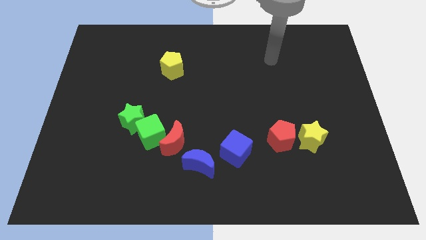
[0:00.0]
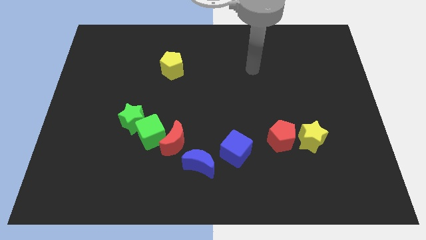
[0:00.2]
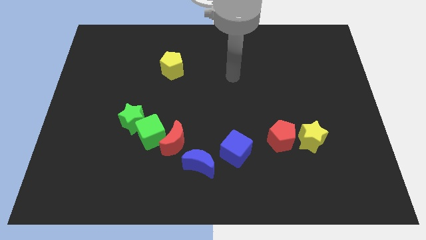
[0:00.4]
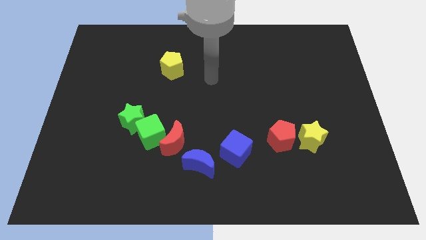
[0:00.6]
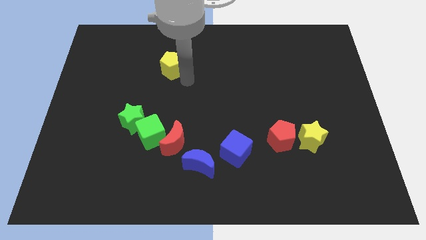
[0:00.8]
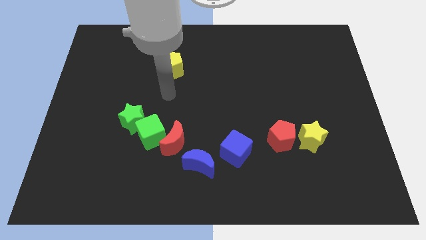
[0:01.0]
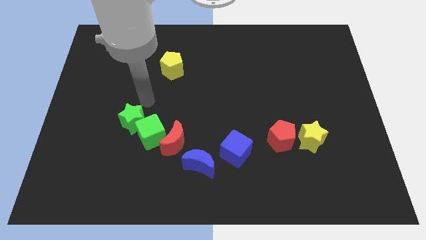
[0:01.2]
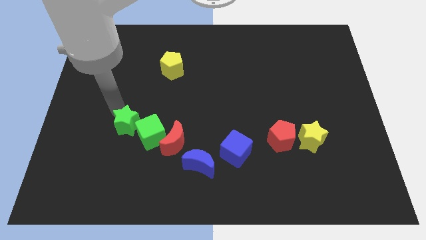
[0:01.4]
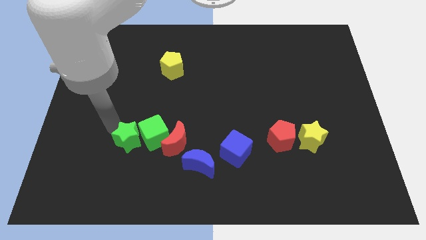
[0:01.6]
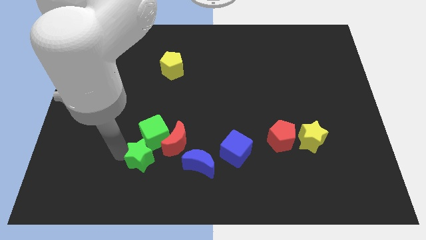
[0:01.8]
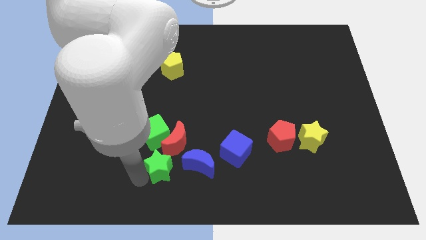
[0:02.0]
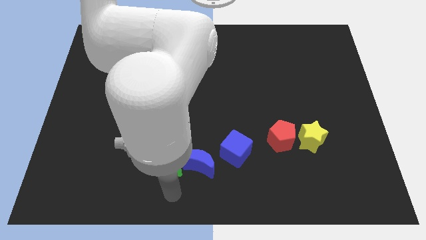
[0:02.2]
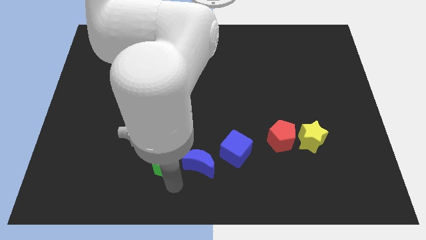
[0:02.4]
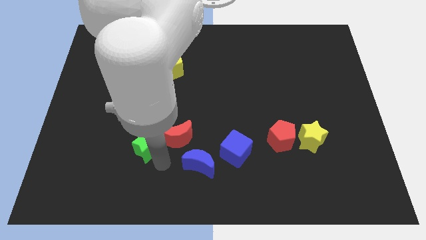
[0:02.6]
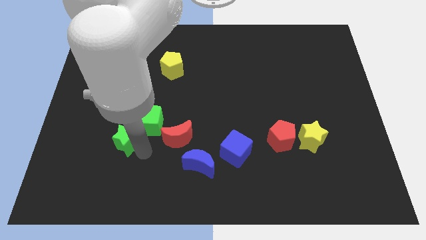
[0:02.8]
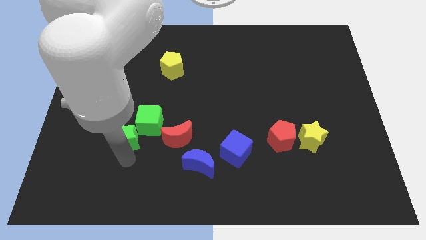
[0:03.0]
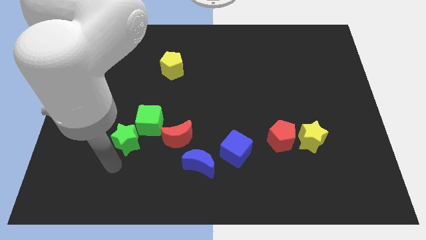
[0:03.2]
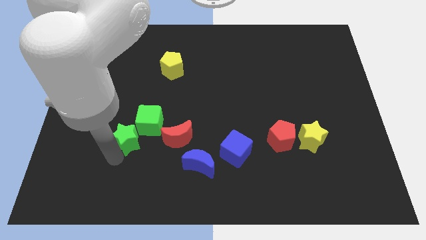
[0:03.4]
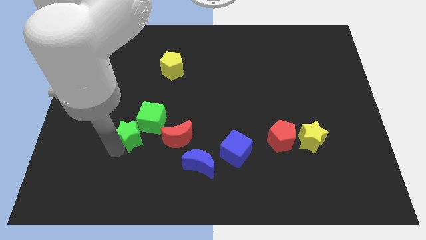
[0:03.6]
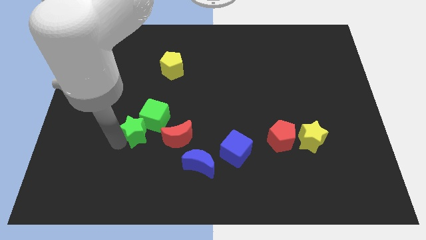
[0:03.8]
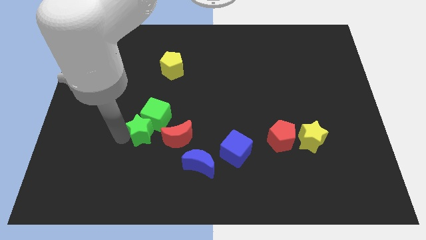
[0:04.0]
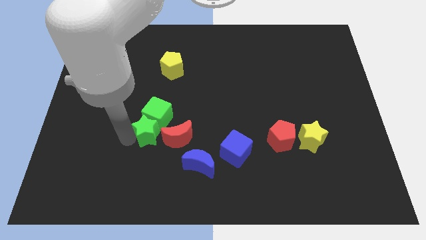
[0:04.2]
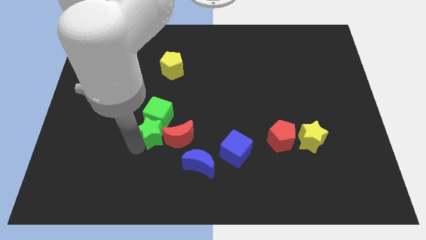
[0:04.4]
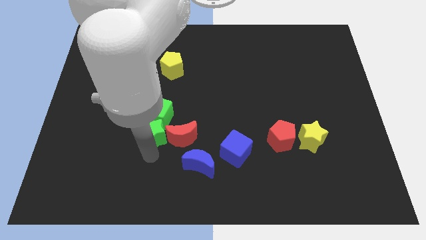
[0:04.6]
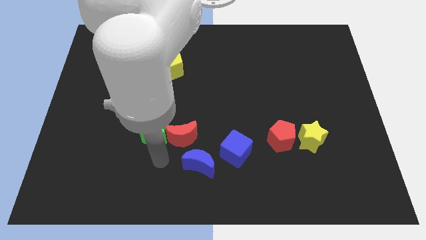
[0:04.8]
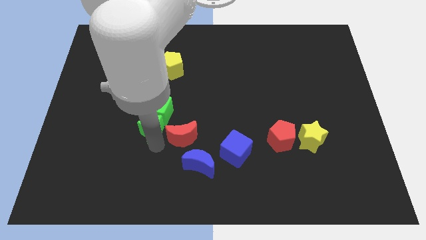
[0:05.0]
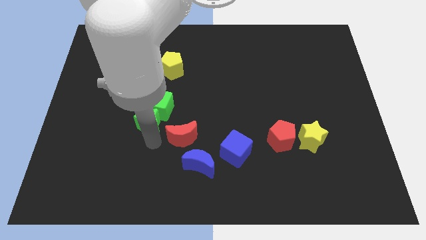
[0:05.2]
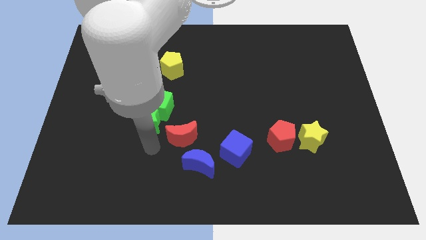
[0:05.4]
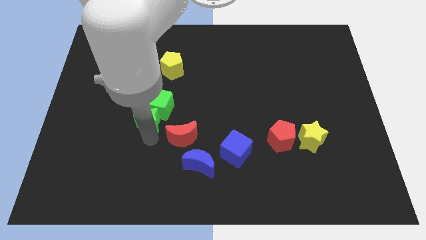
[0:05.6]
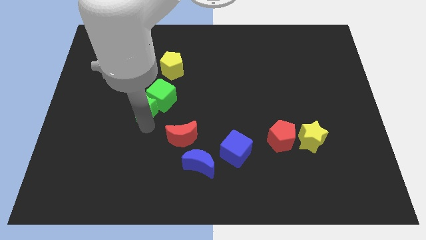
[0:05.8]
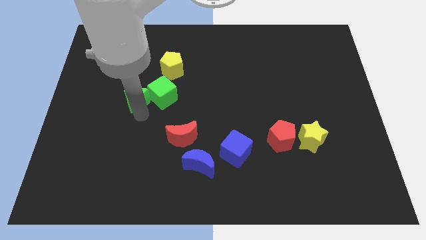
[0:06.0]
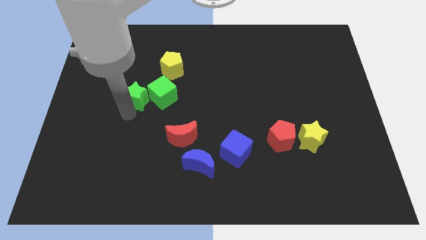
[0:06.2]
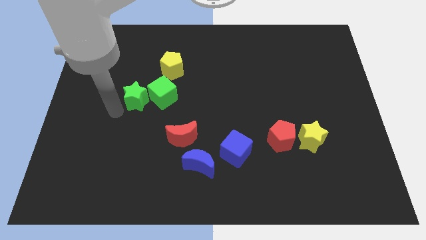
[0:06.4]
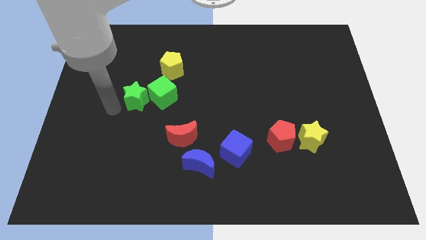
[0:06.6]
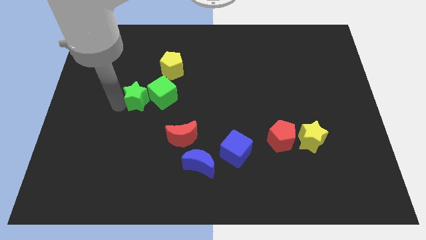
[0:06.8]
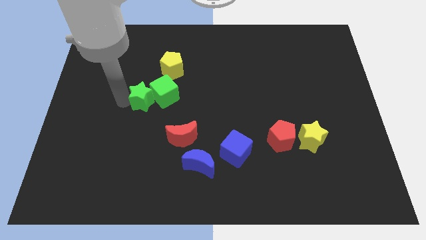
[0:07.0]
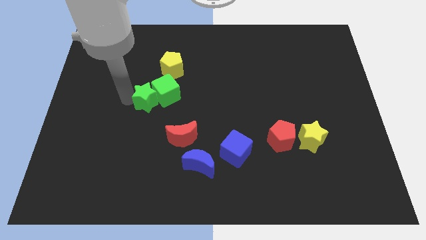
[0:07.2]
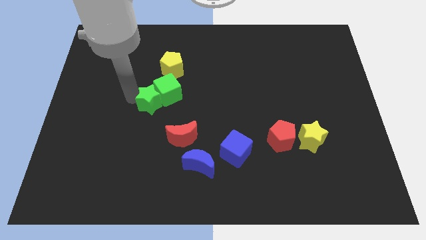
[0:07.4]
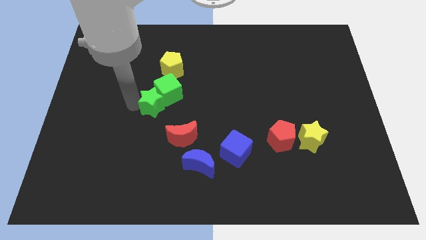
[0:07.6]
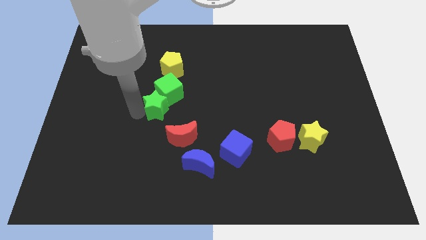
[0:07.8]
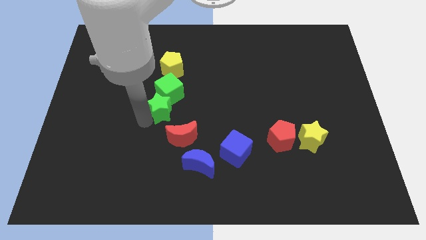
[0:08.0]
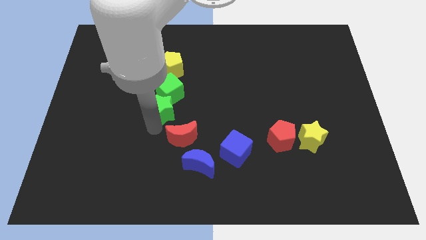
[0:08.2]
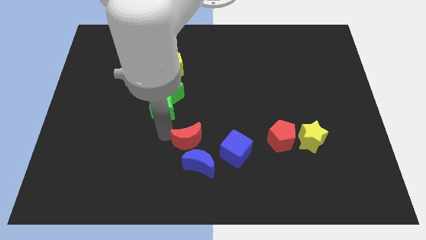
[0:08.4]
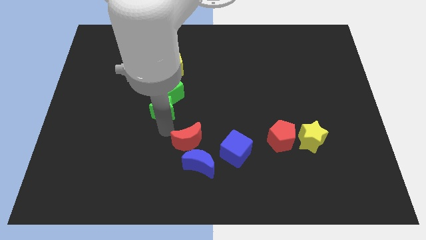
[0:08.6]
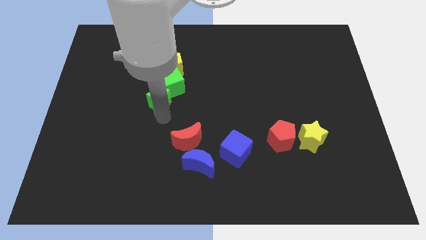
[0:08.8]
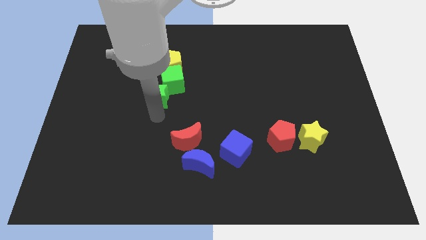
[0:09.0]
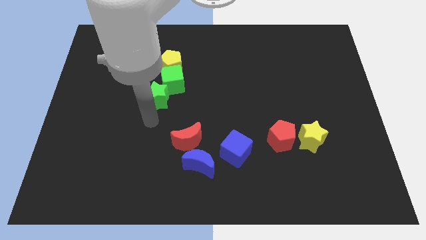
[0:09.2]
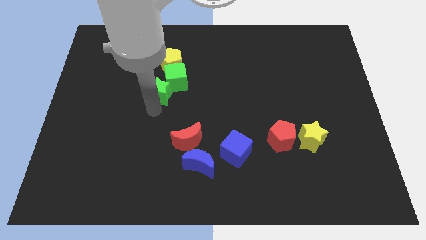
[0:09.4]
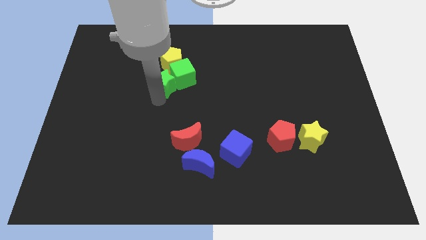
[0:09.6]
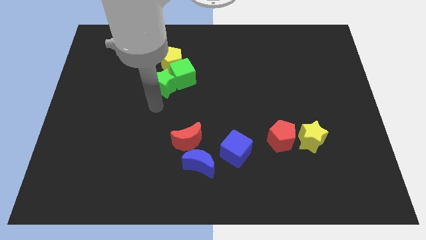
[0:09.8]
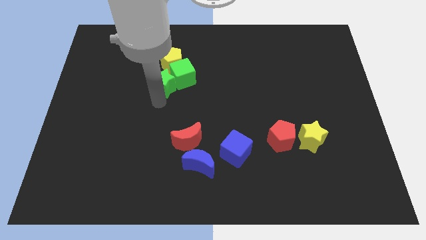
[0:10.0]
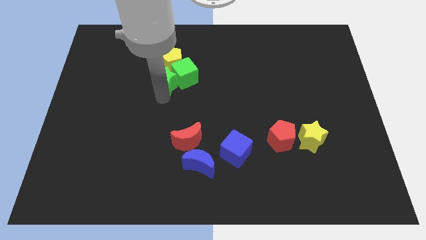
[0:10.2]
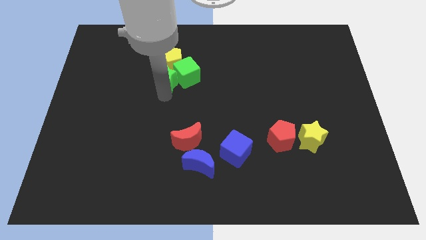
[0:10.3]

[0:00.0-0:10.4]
slide the green star close to the yellow pentagon

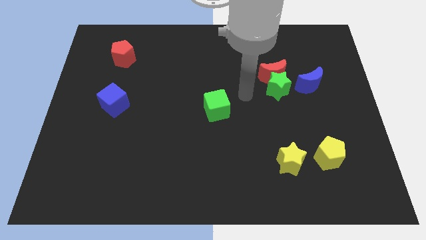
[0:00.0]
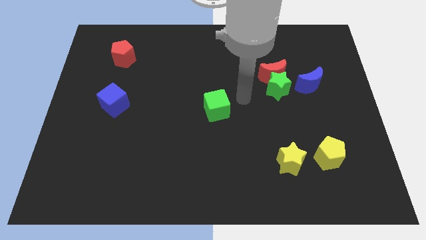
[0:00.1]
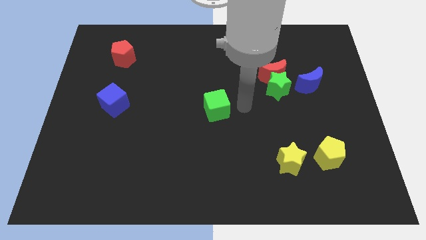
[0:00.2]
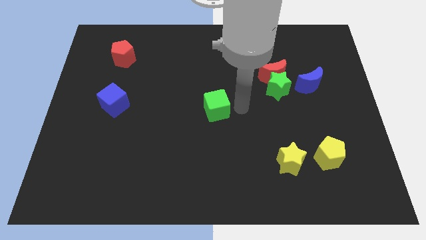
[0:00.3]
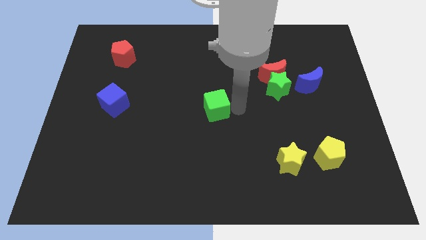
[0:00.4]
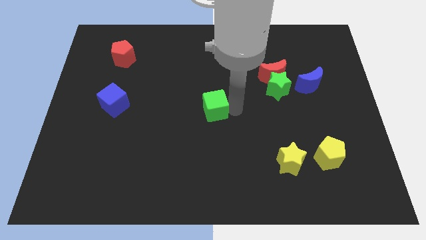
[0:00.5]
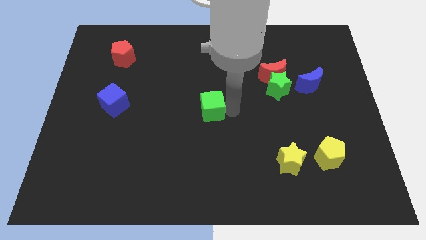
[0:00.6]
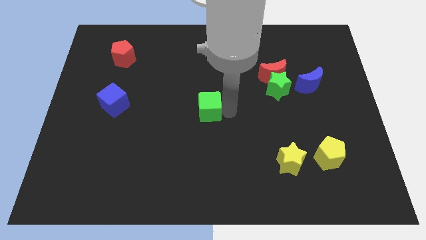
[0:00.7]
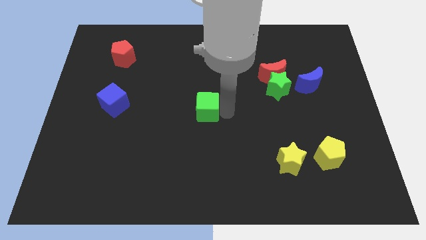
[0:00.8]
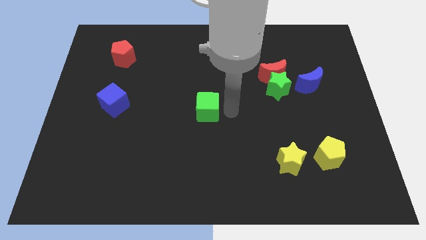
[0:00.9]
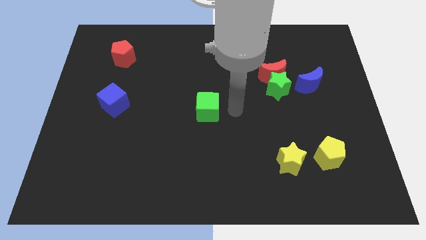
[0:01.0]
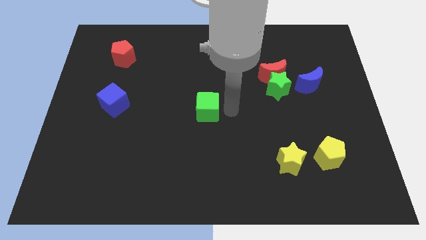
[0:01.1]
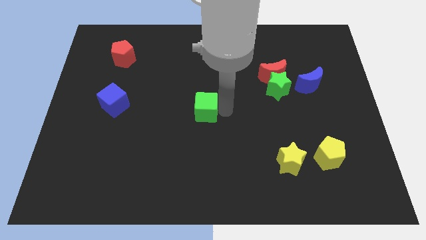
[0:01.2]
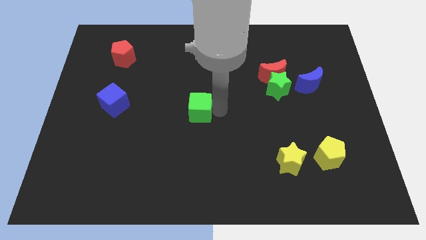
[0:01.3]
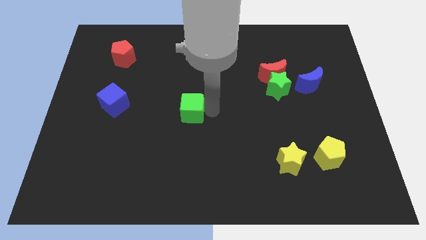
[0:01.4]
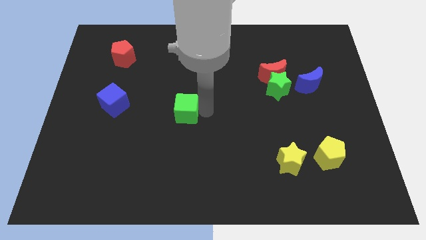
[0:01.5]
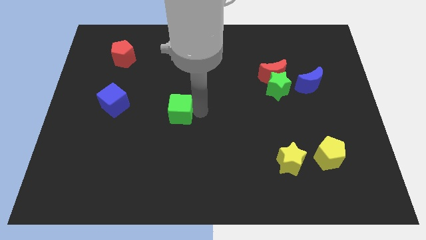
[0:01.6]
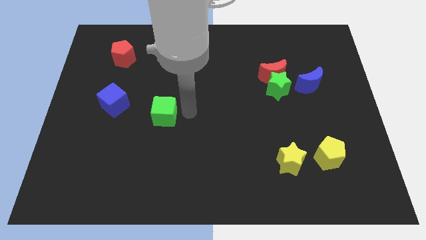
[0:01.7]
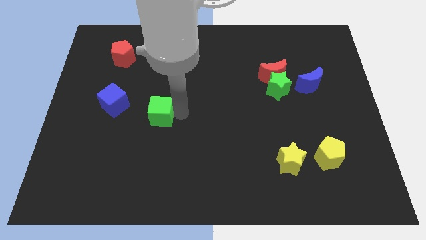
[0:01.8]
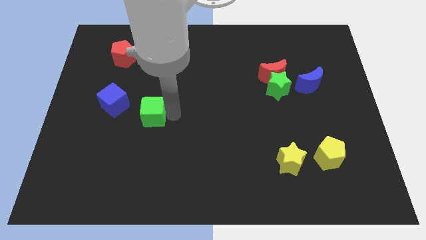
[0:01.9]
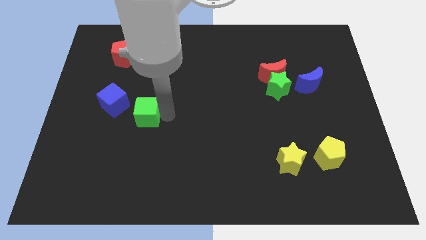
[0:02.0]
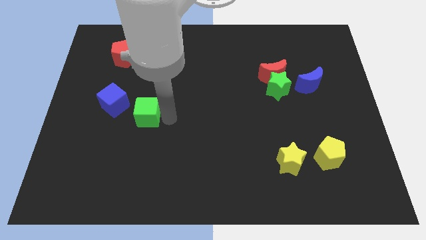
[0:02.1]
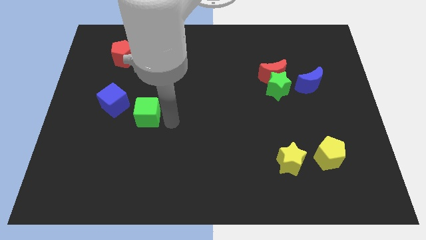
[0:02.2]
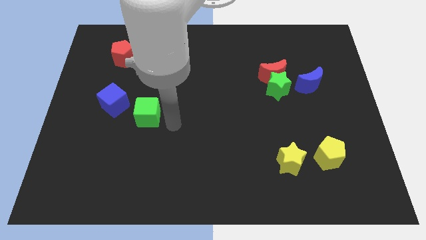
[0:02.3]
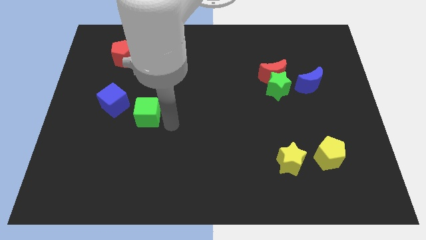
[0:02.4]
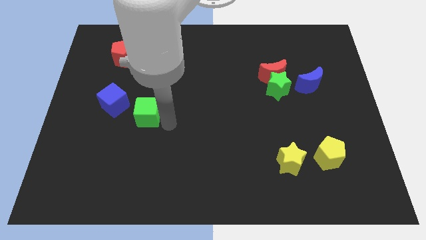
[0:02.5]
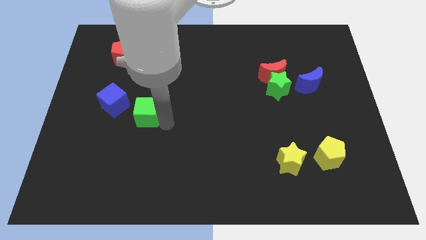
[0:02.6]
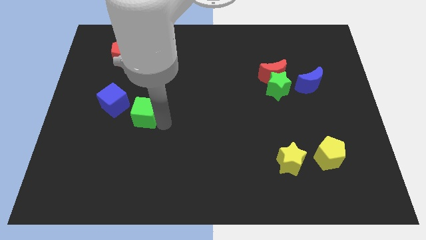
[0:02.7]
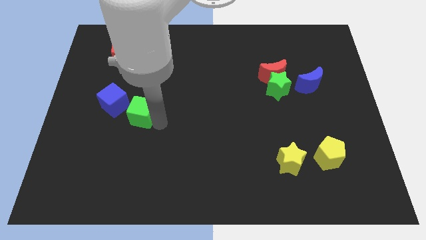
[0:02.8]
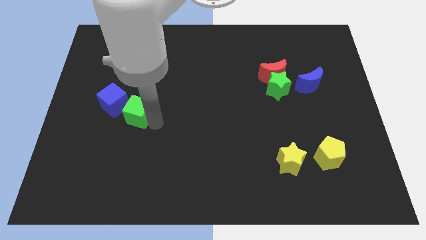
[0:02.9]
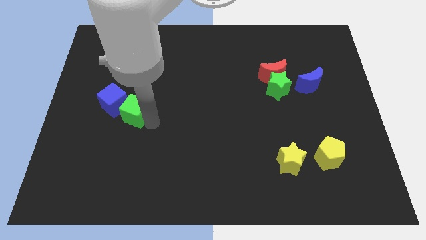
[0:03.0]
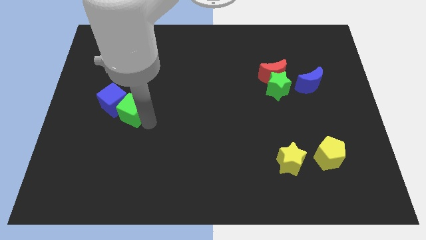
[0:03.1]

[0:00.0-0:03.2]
put the green cube to the blue cube
